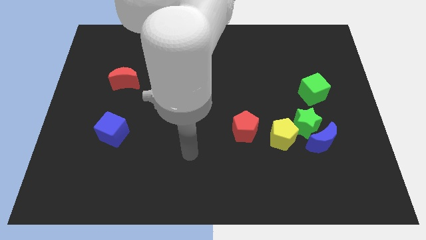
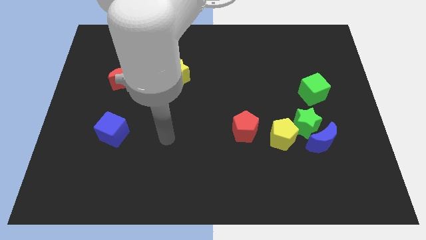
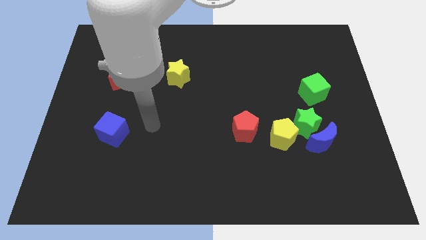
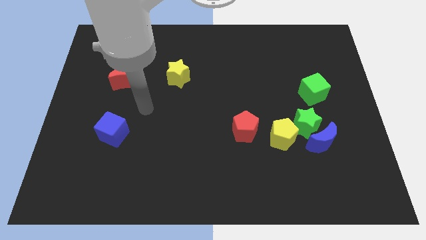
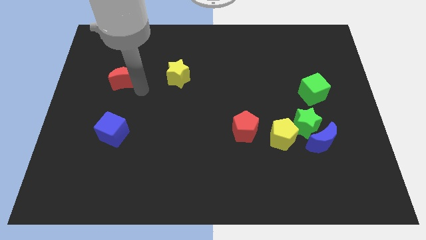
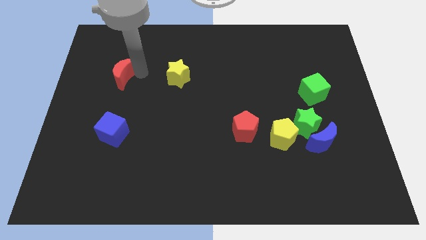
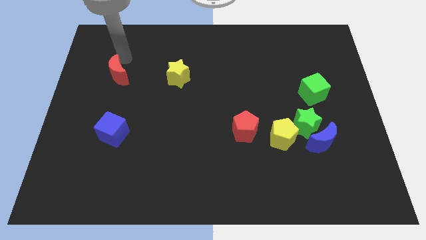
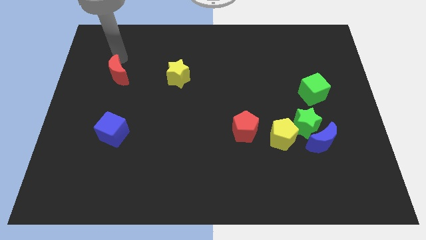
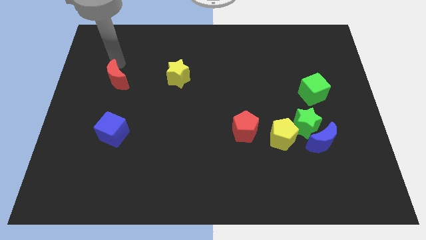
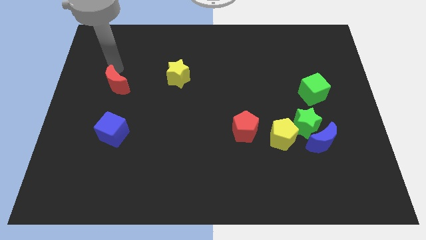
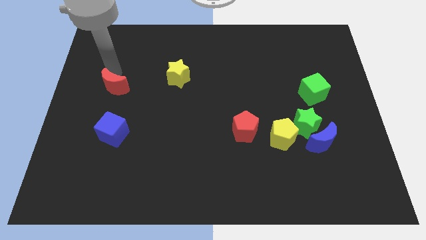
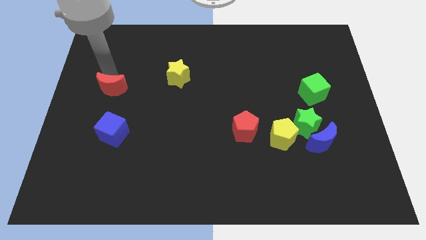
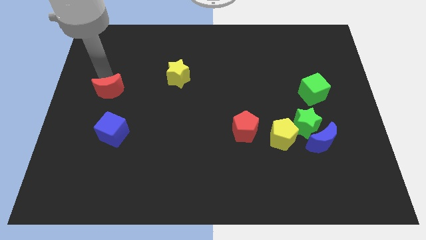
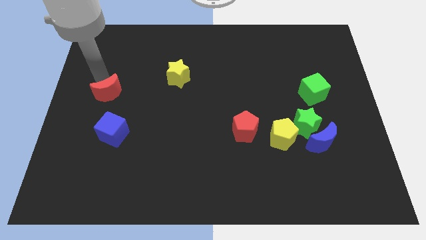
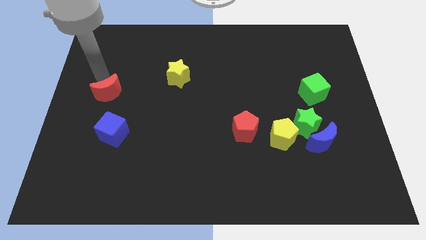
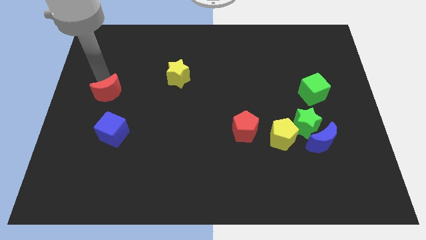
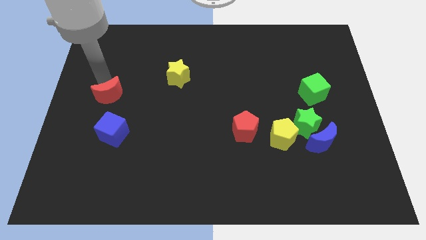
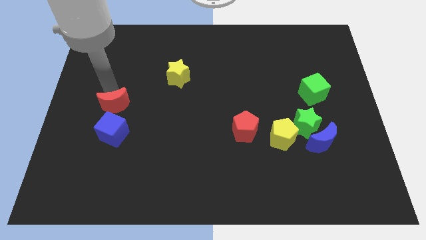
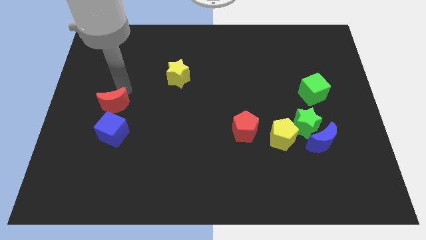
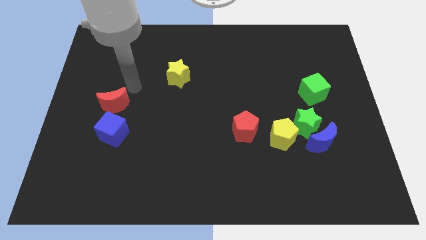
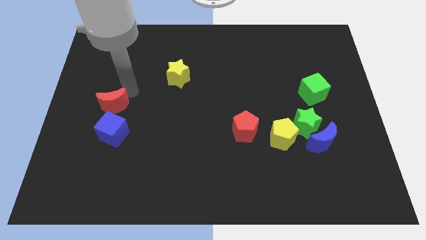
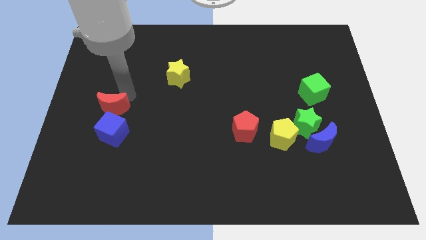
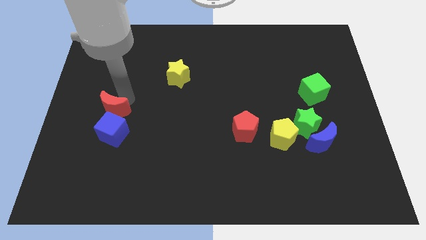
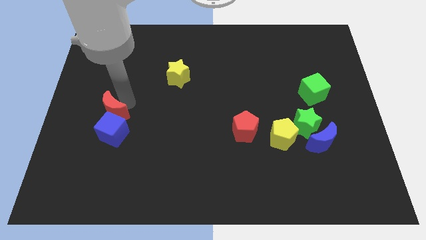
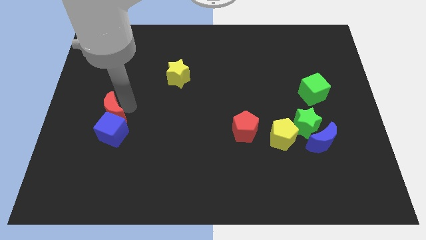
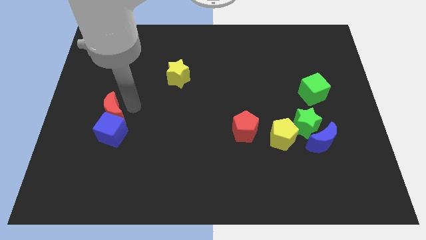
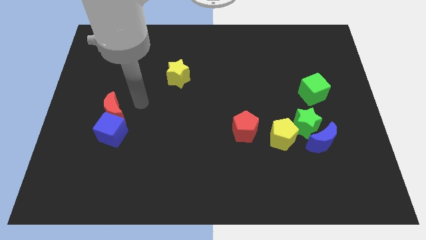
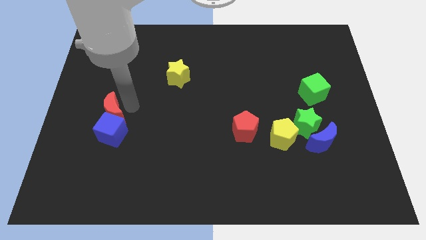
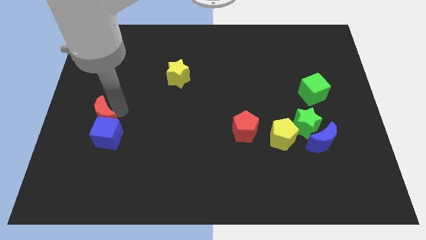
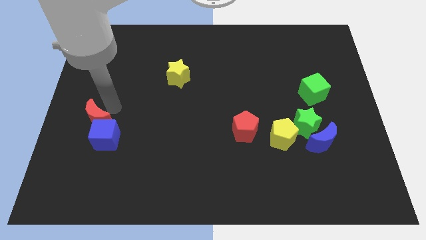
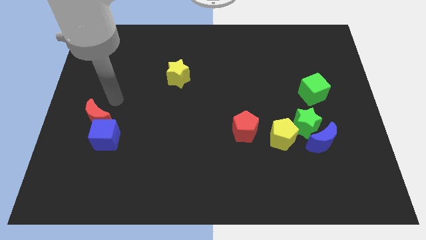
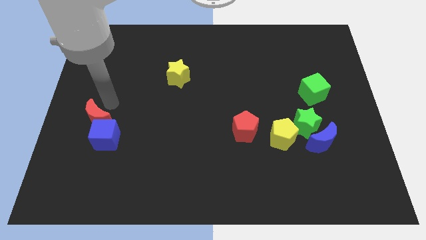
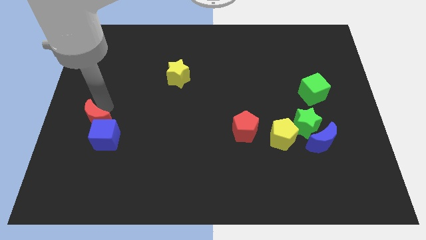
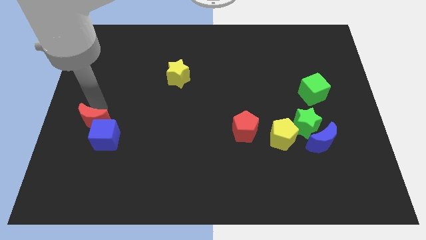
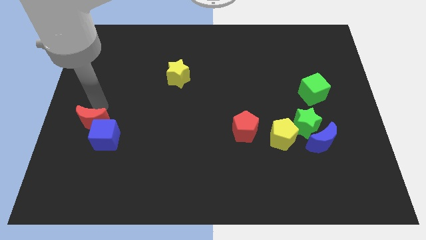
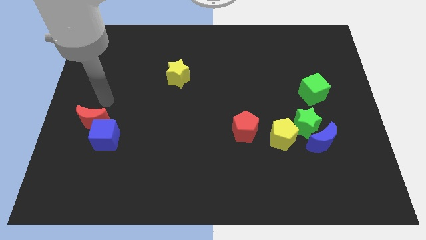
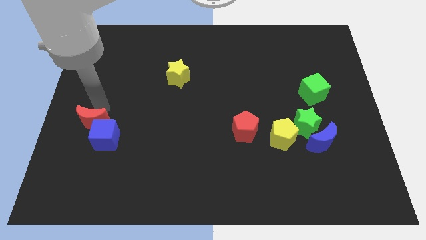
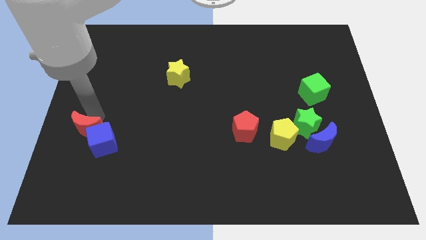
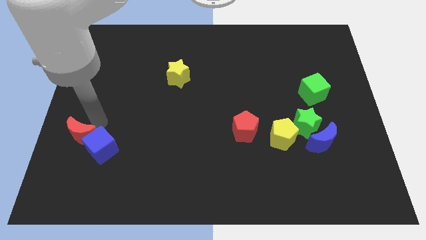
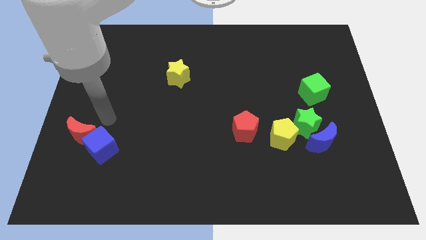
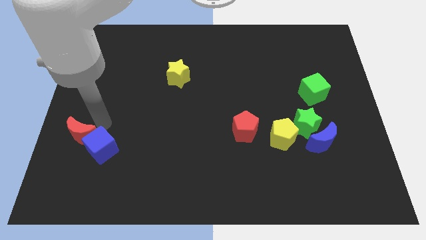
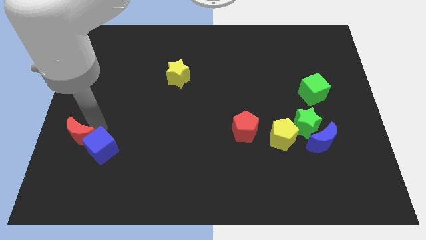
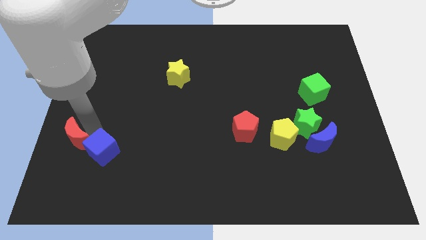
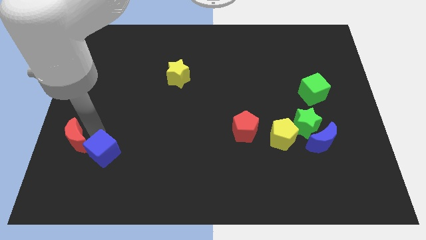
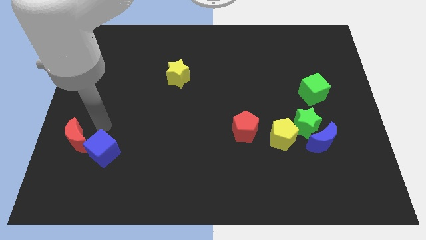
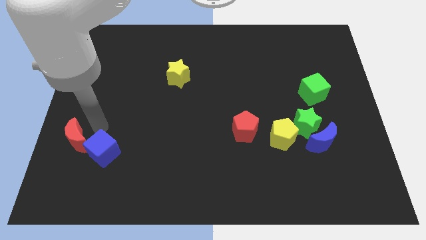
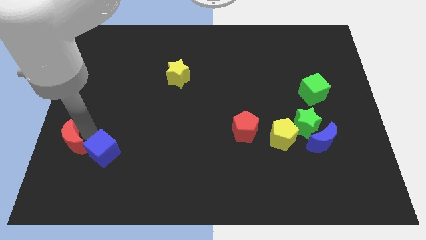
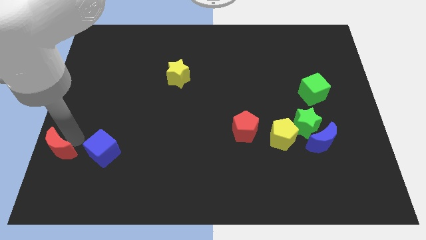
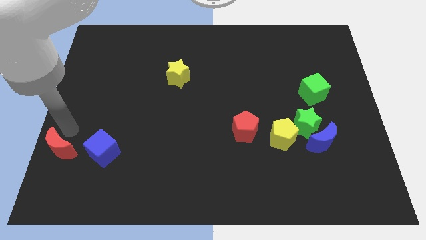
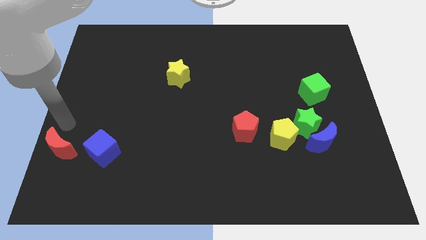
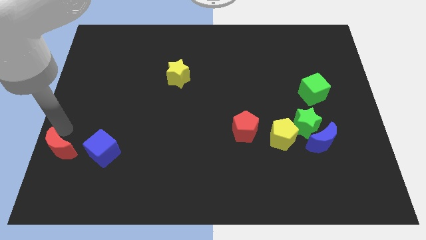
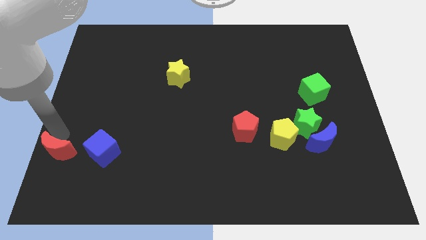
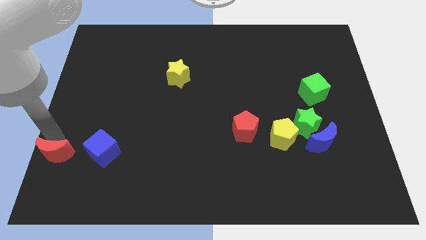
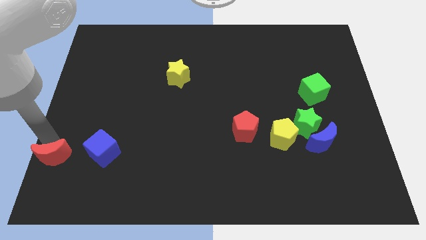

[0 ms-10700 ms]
slide the red moon to the bottom left of the board

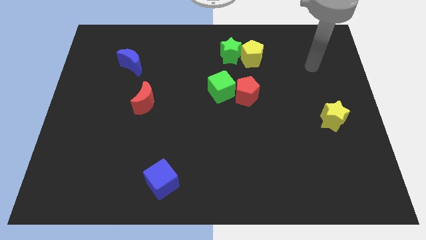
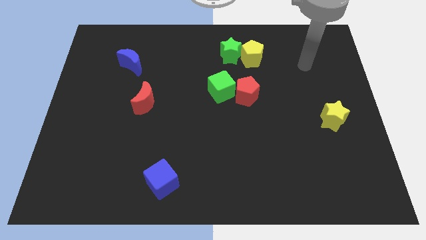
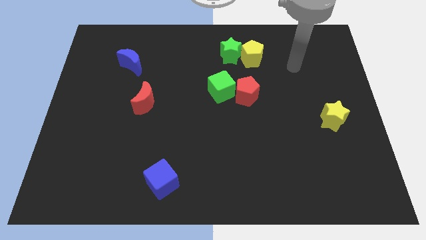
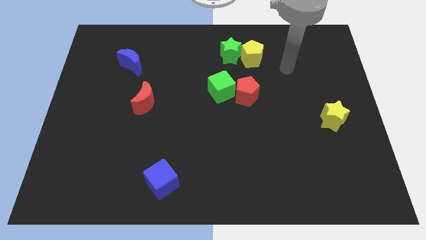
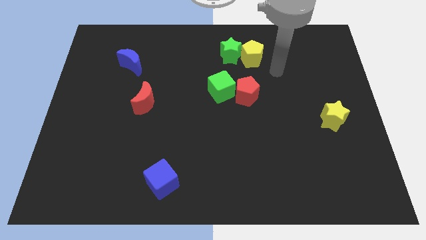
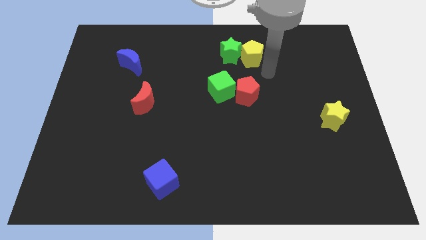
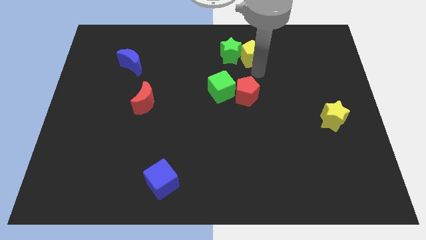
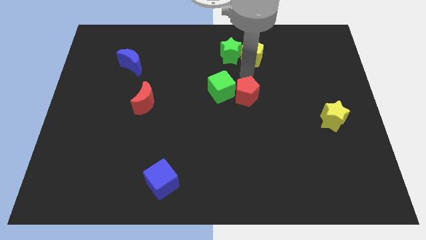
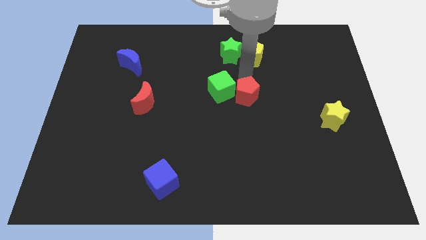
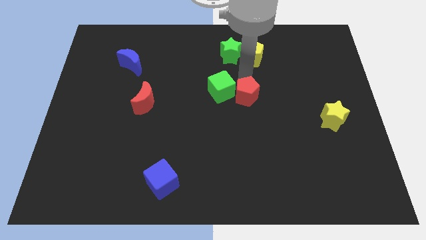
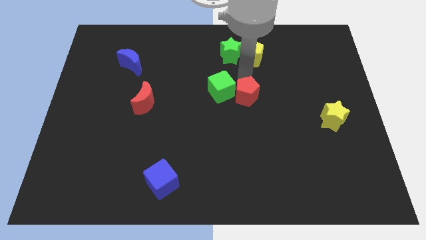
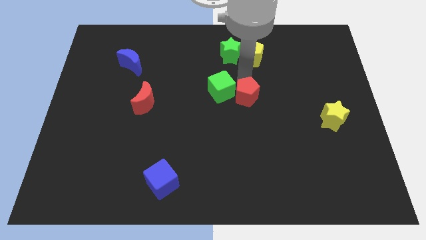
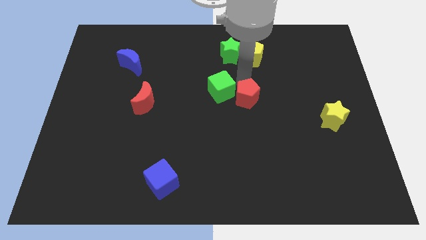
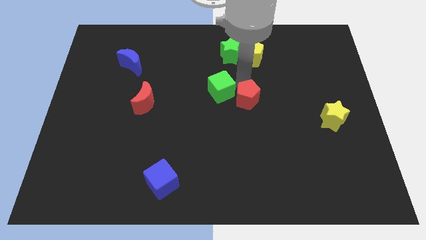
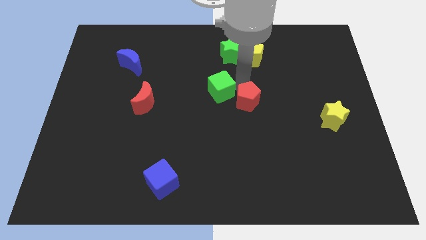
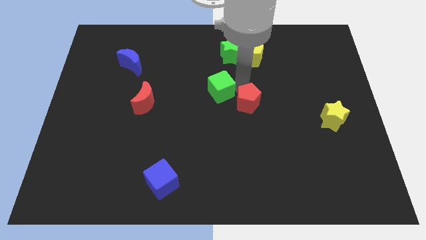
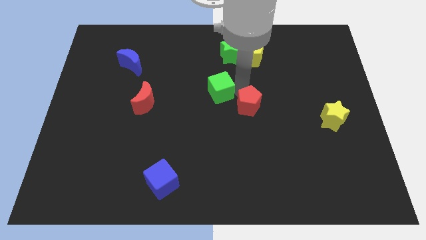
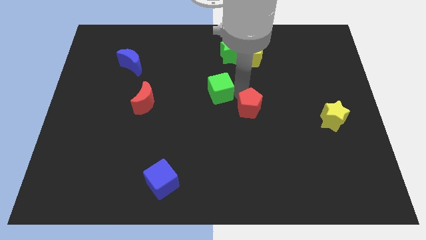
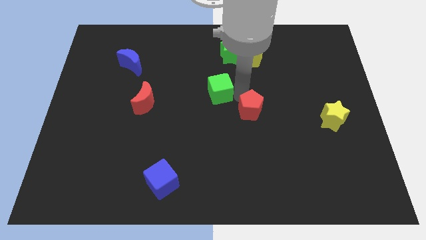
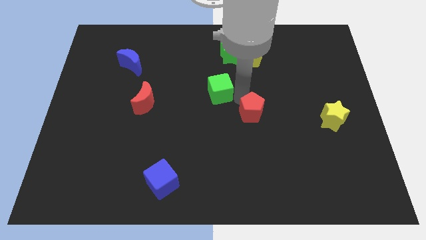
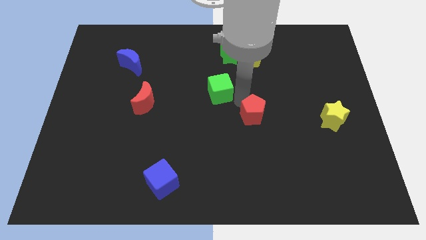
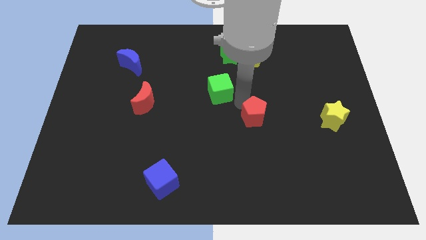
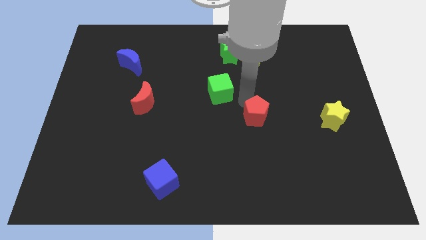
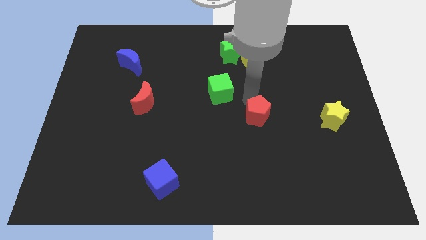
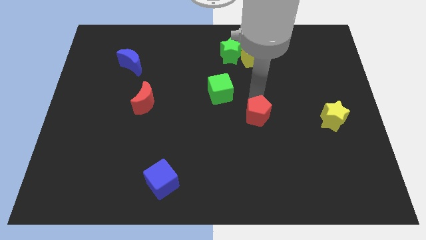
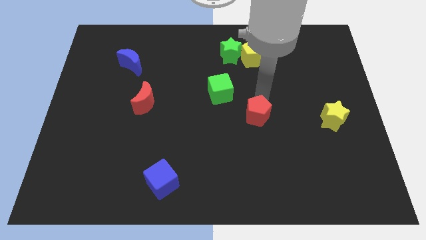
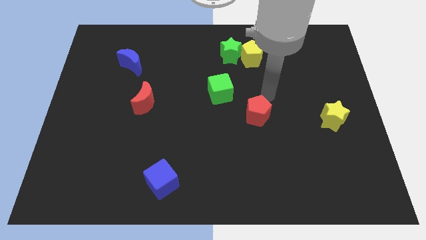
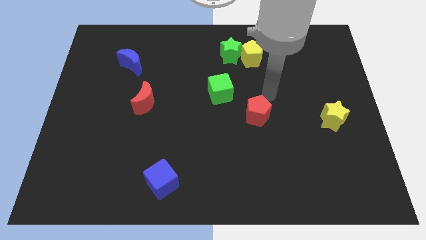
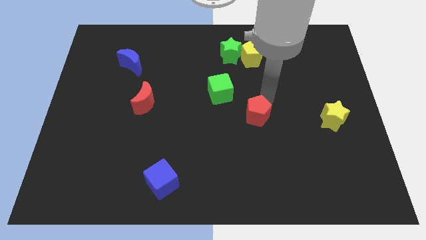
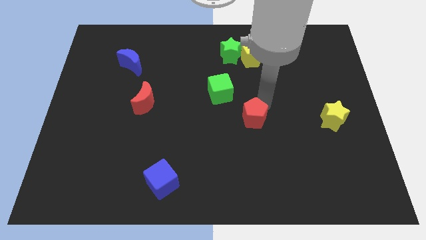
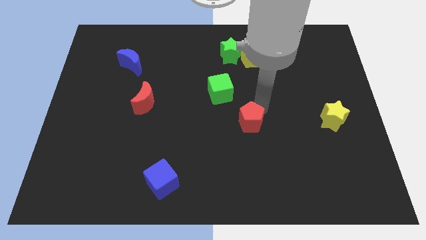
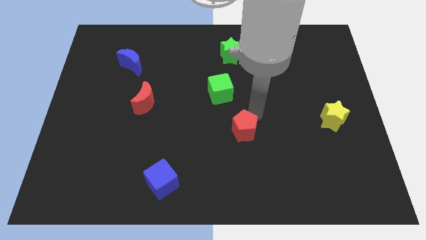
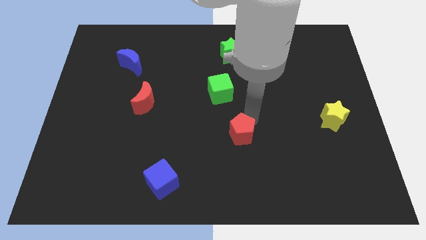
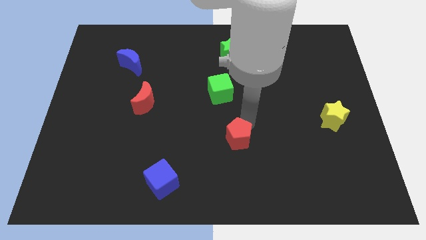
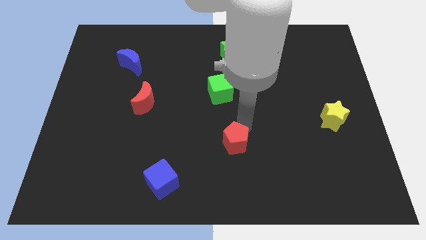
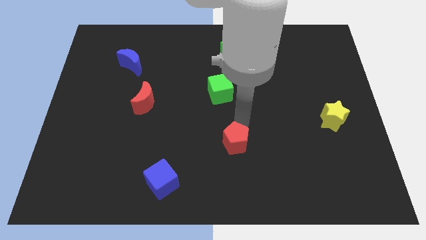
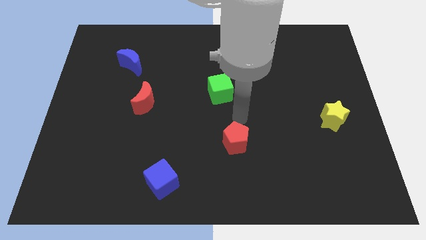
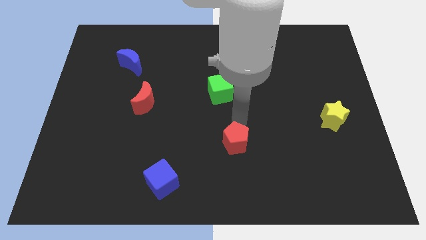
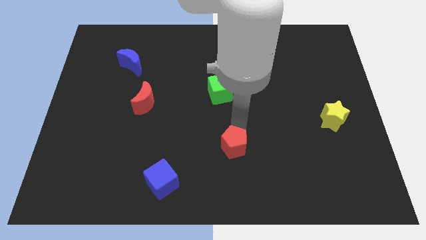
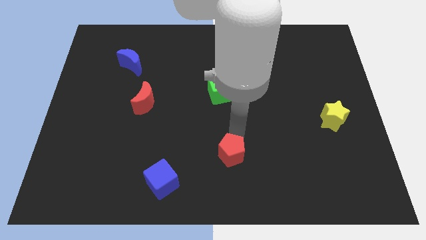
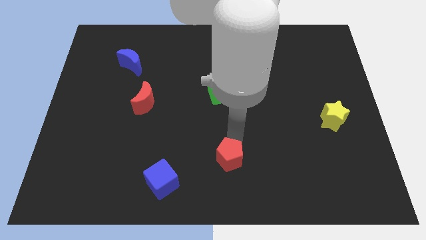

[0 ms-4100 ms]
push the red pentagon to the bottom
